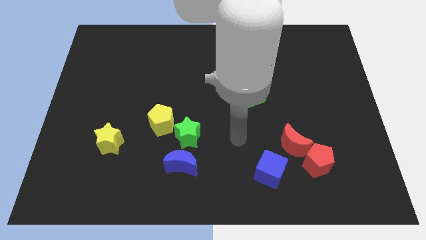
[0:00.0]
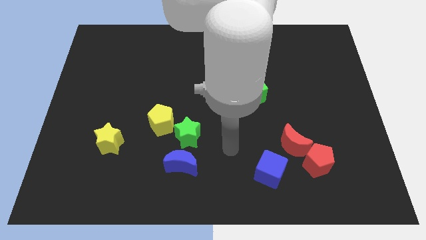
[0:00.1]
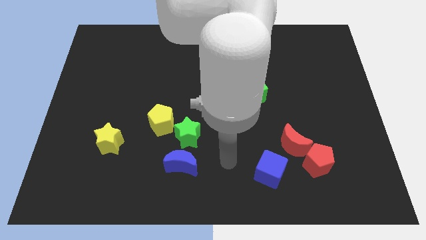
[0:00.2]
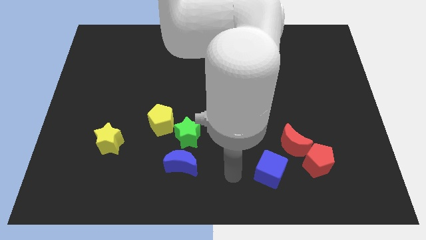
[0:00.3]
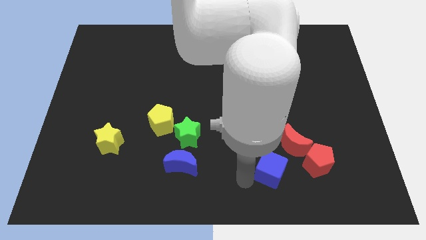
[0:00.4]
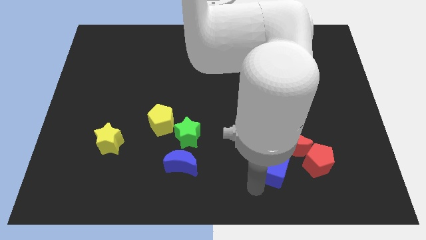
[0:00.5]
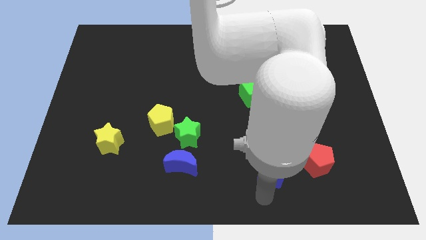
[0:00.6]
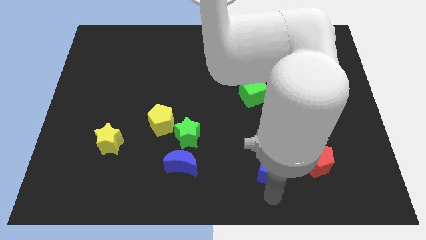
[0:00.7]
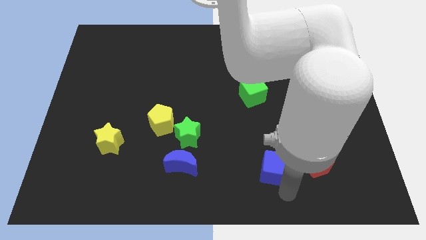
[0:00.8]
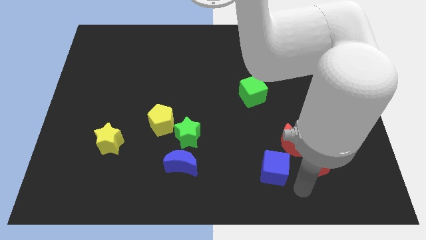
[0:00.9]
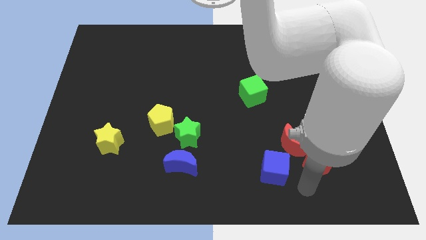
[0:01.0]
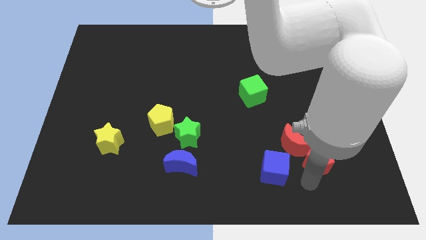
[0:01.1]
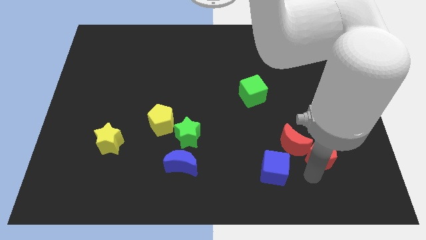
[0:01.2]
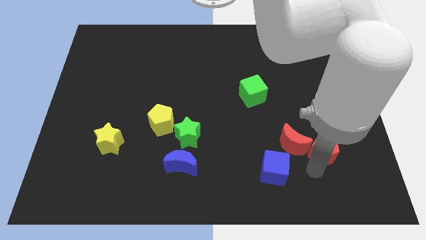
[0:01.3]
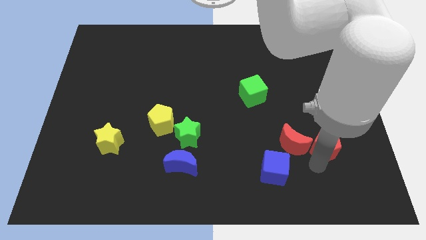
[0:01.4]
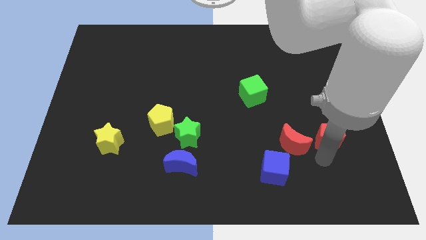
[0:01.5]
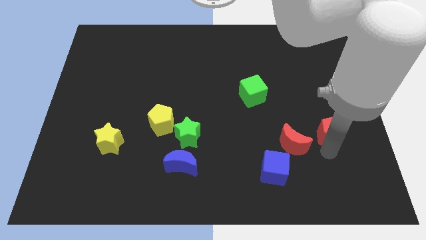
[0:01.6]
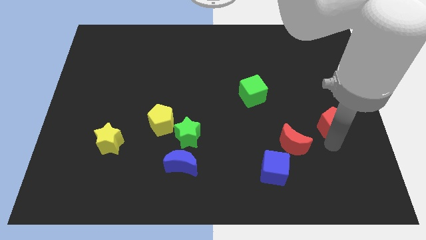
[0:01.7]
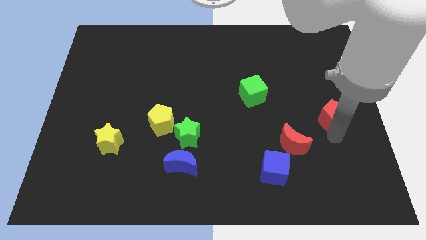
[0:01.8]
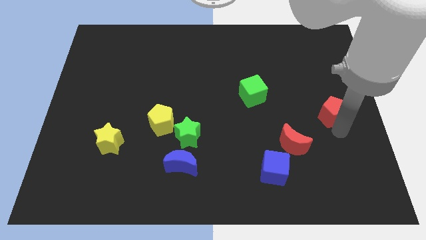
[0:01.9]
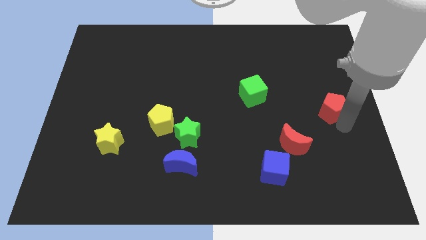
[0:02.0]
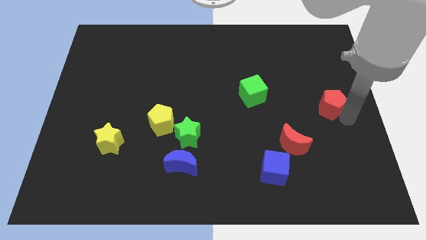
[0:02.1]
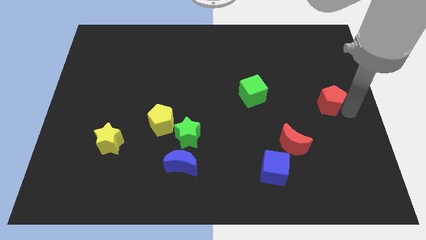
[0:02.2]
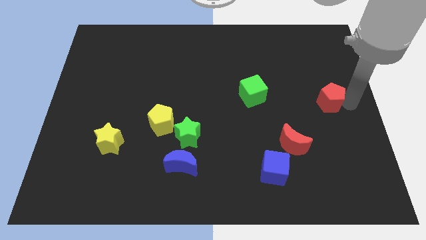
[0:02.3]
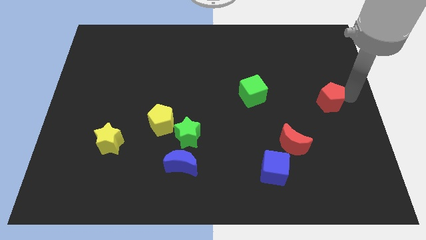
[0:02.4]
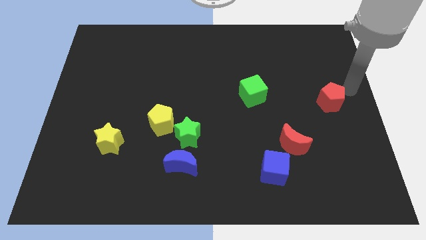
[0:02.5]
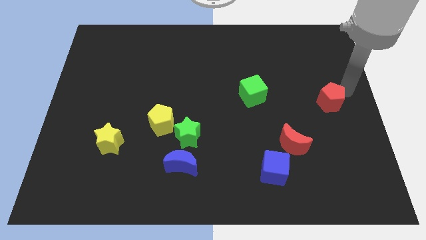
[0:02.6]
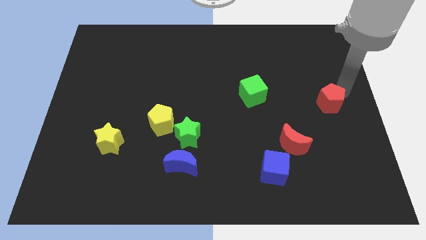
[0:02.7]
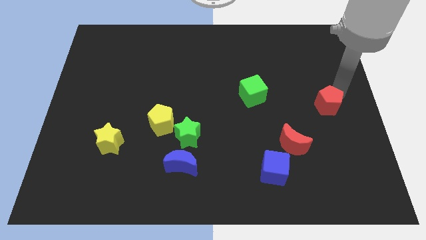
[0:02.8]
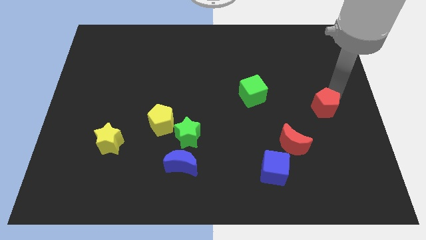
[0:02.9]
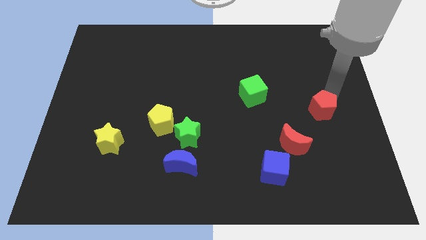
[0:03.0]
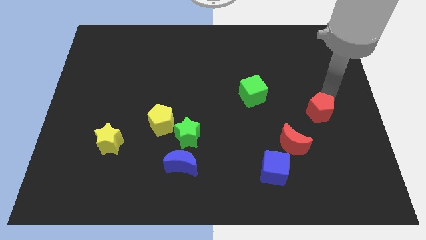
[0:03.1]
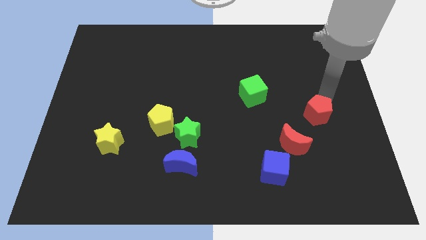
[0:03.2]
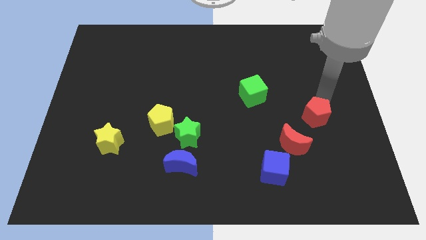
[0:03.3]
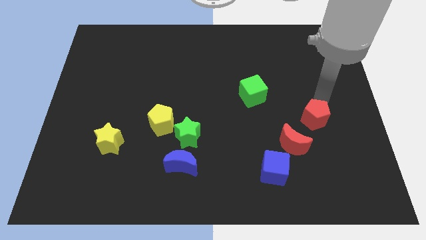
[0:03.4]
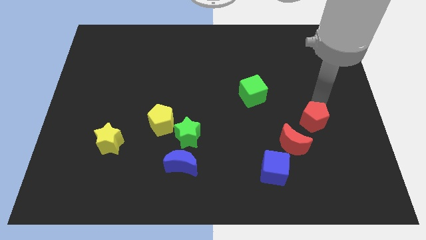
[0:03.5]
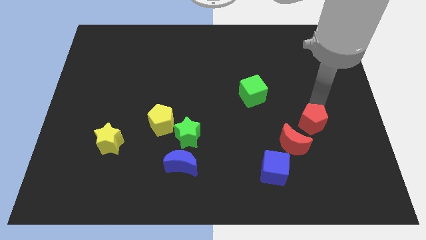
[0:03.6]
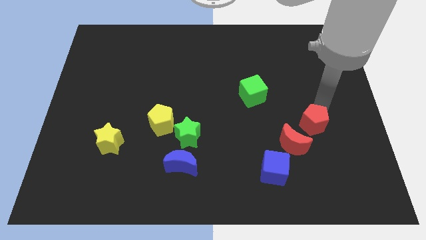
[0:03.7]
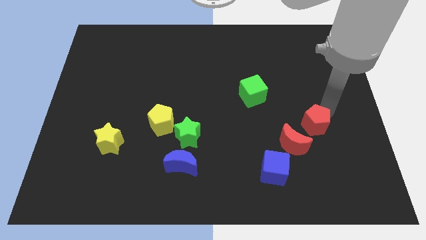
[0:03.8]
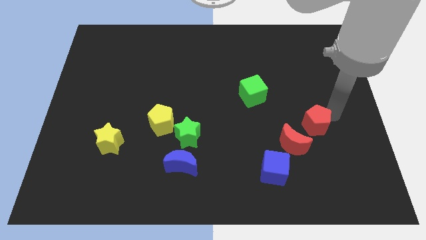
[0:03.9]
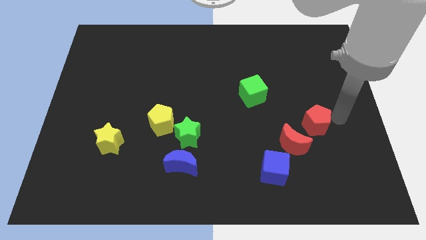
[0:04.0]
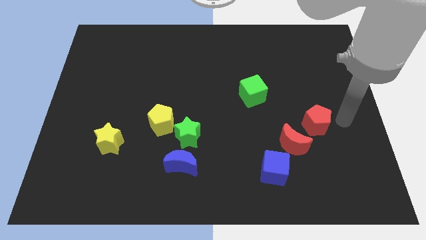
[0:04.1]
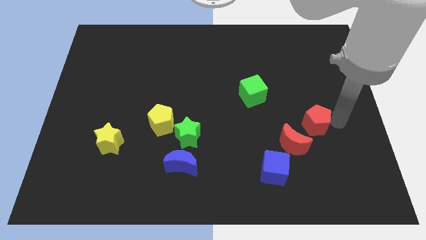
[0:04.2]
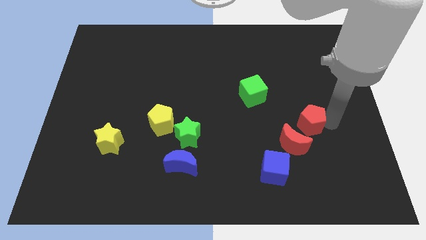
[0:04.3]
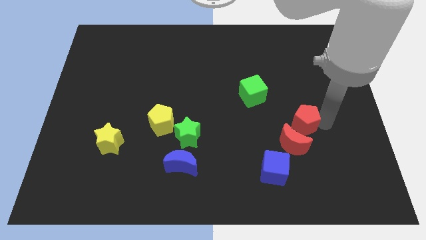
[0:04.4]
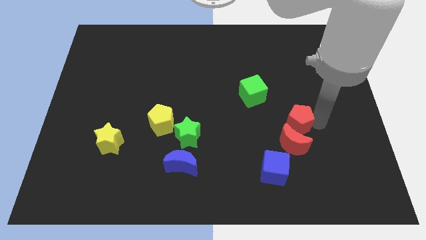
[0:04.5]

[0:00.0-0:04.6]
slightly move the red pentagon diagonally upwards and left

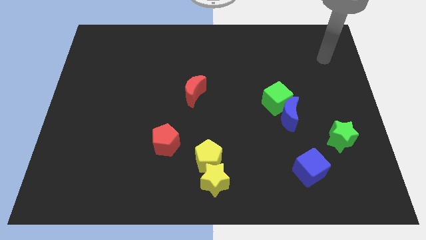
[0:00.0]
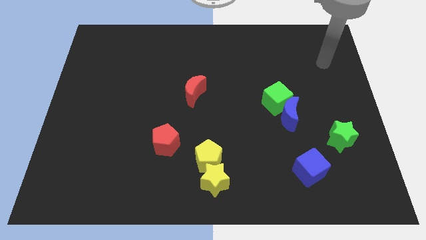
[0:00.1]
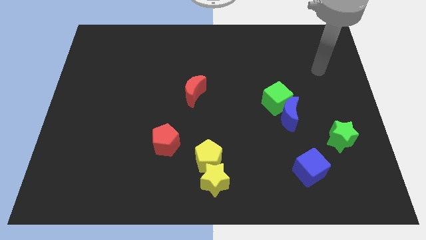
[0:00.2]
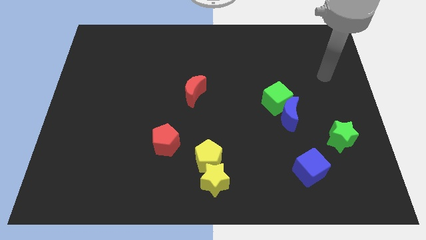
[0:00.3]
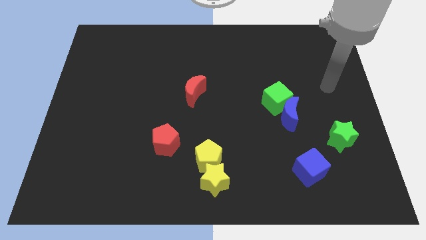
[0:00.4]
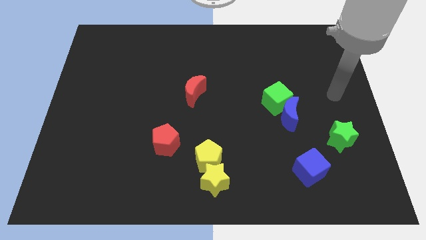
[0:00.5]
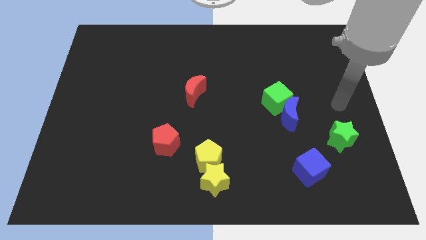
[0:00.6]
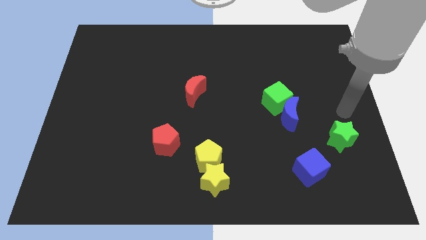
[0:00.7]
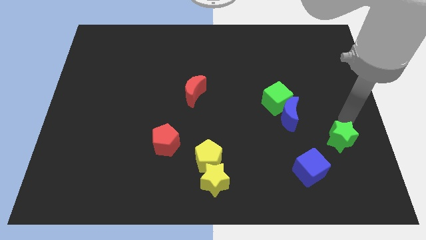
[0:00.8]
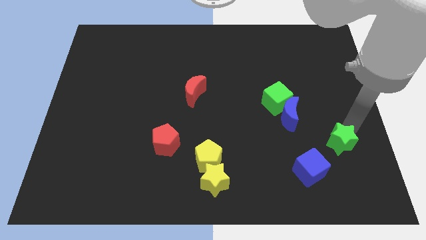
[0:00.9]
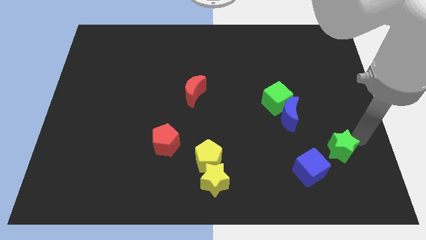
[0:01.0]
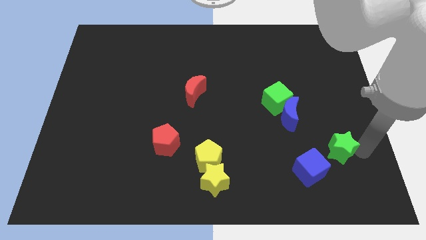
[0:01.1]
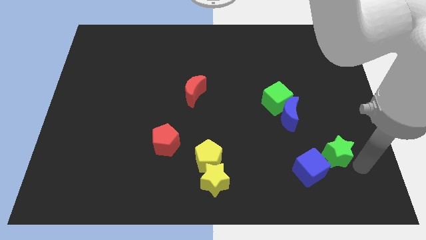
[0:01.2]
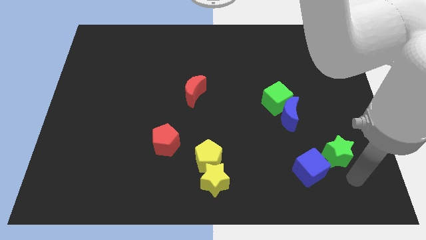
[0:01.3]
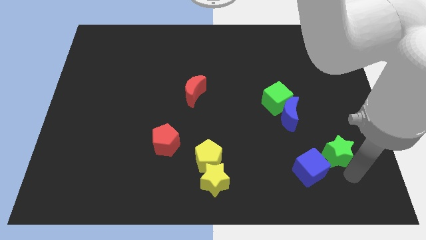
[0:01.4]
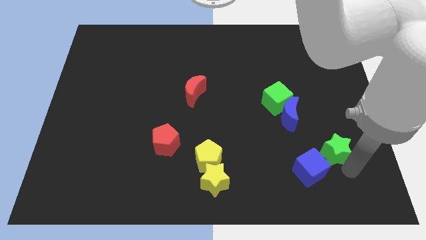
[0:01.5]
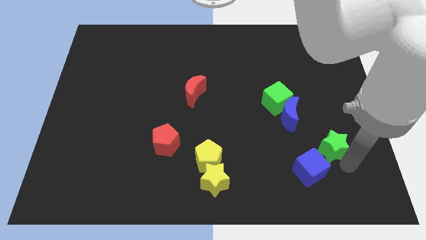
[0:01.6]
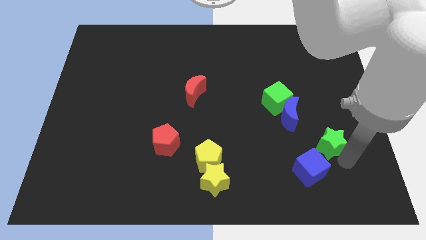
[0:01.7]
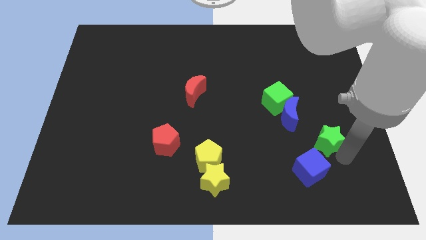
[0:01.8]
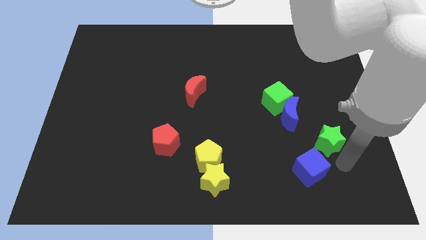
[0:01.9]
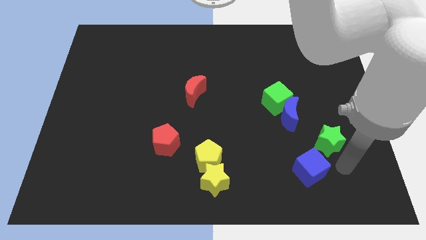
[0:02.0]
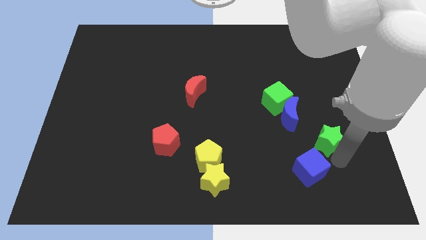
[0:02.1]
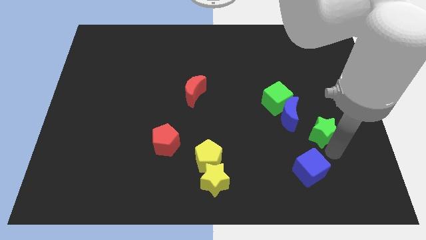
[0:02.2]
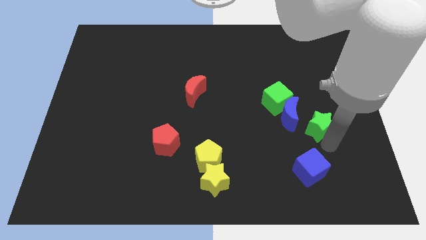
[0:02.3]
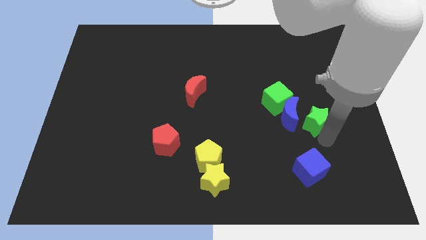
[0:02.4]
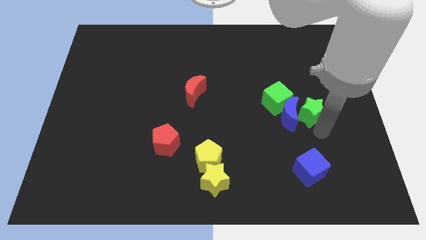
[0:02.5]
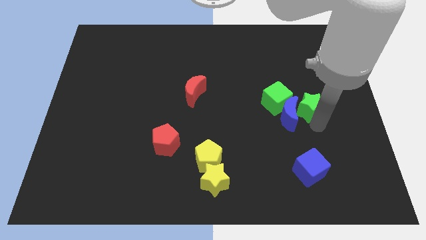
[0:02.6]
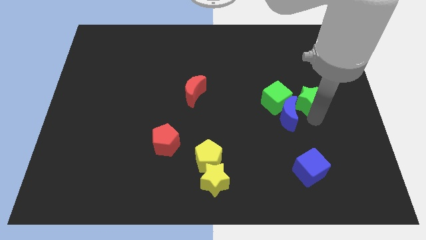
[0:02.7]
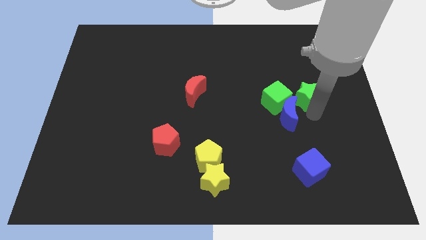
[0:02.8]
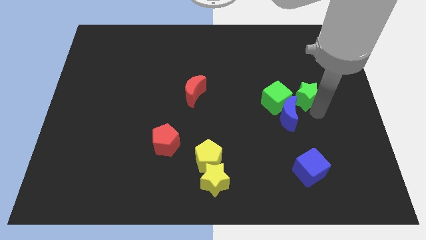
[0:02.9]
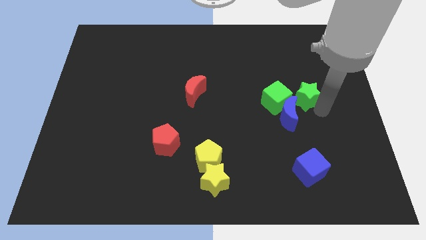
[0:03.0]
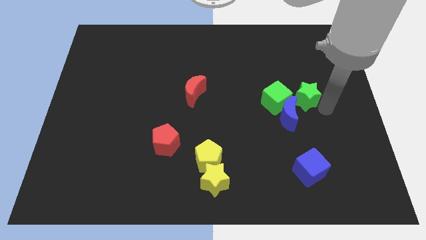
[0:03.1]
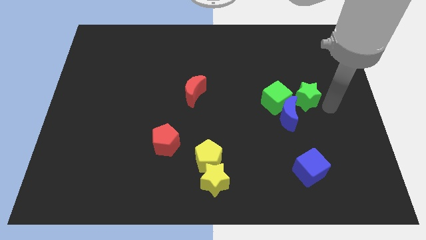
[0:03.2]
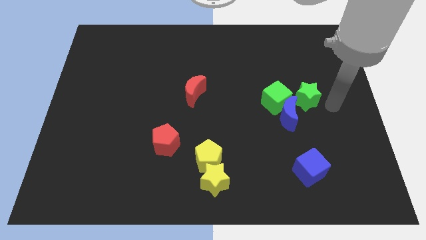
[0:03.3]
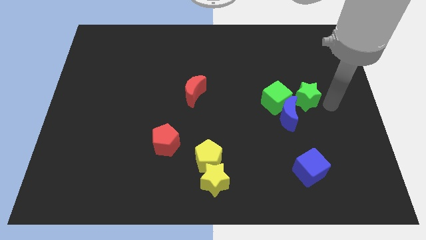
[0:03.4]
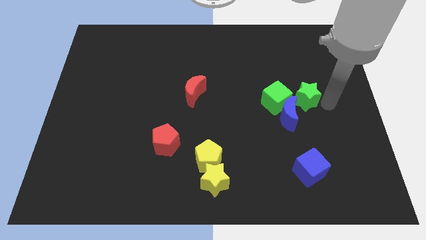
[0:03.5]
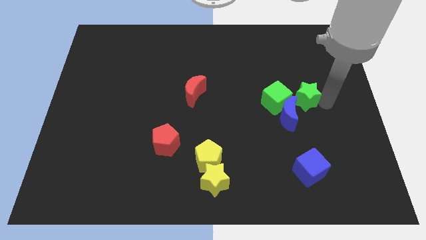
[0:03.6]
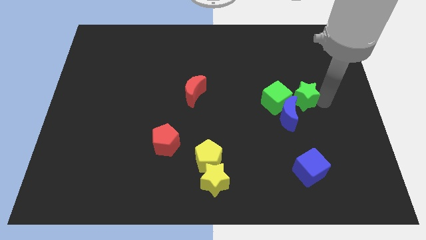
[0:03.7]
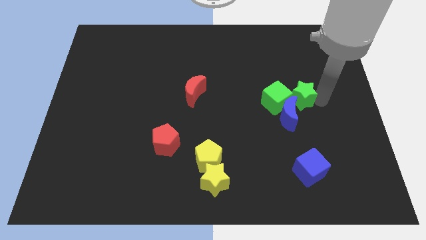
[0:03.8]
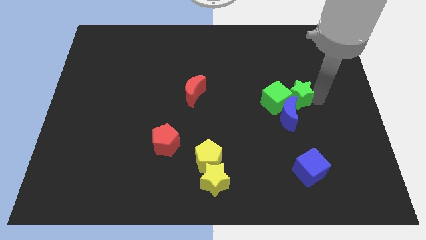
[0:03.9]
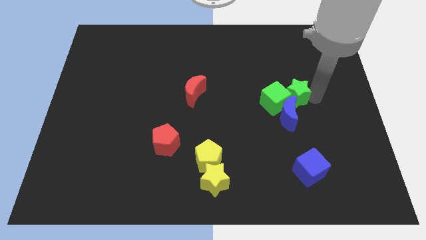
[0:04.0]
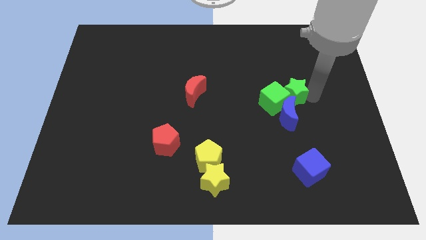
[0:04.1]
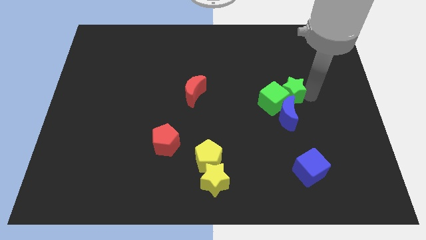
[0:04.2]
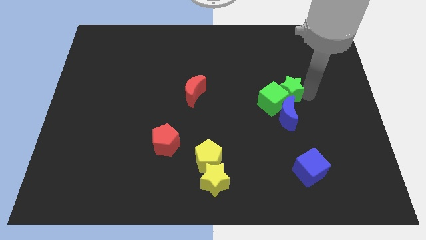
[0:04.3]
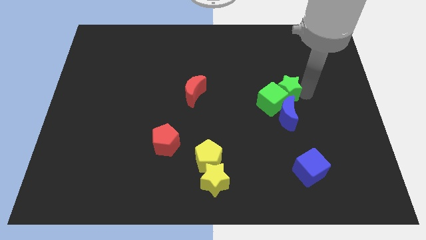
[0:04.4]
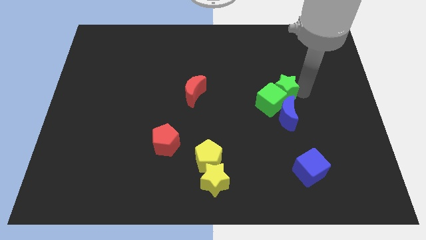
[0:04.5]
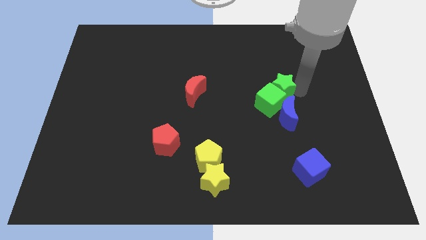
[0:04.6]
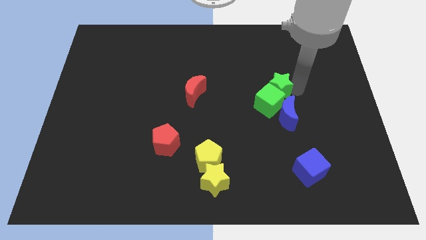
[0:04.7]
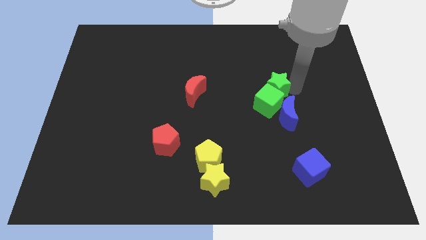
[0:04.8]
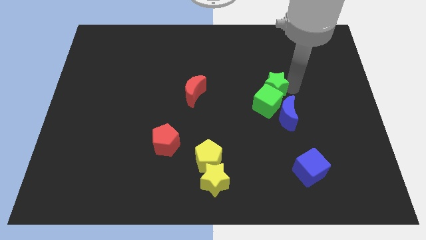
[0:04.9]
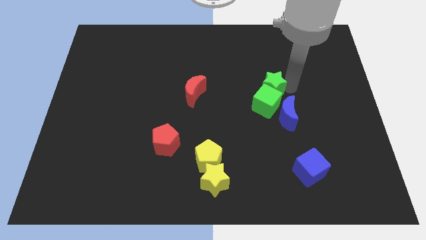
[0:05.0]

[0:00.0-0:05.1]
move the green star up and then to the left
